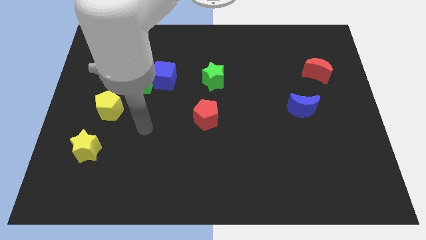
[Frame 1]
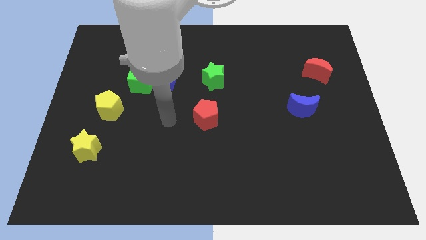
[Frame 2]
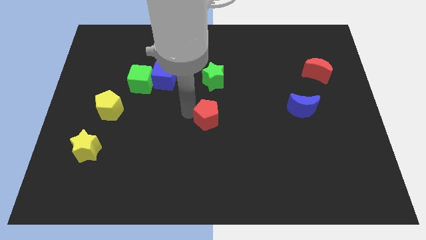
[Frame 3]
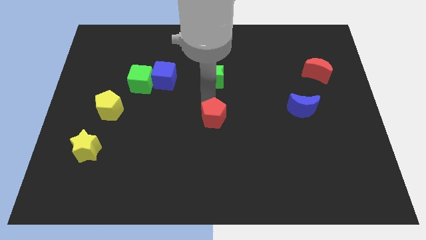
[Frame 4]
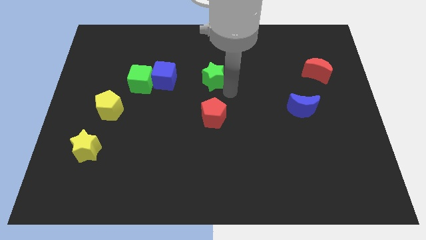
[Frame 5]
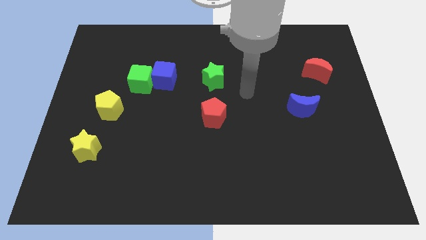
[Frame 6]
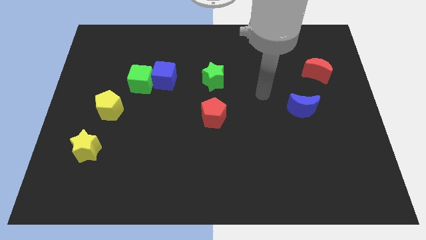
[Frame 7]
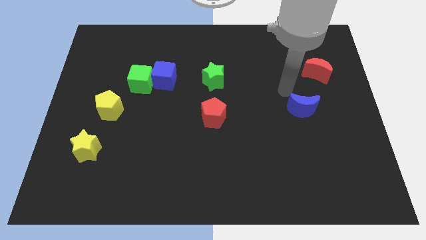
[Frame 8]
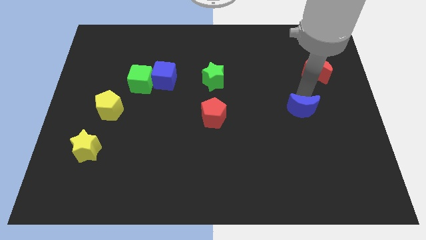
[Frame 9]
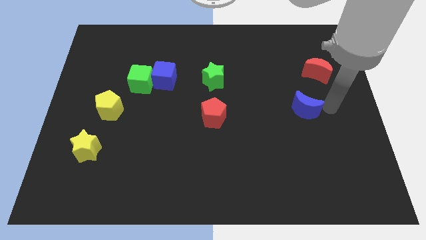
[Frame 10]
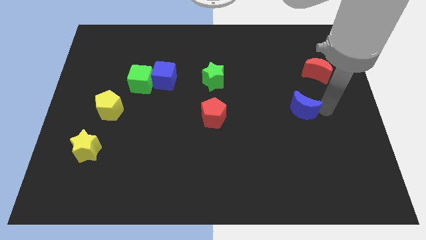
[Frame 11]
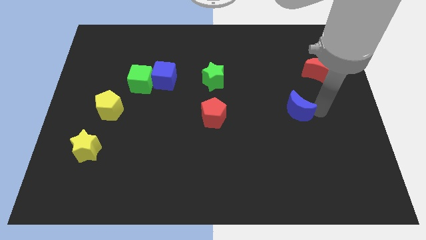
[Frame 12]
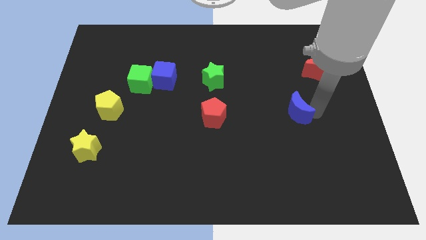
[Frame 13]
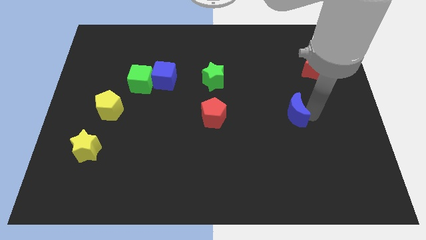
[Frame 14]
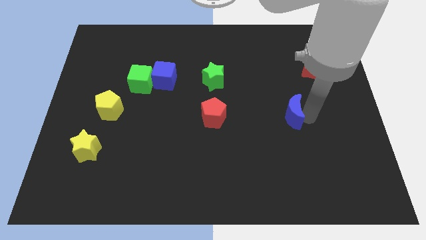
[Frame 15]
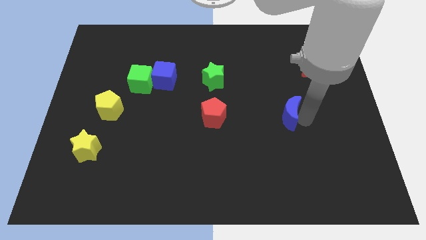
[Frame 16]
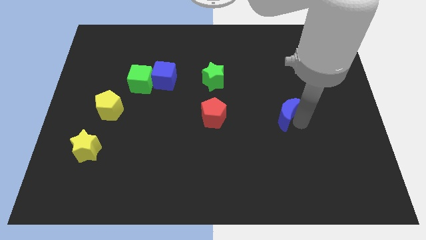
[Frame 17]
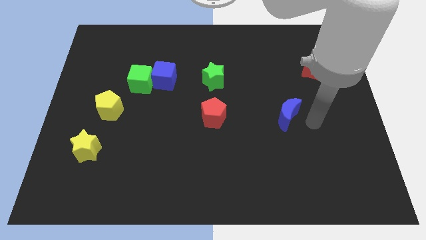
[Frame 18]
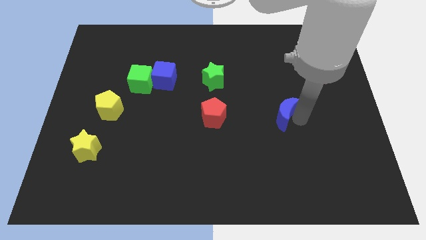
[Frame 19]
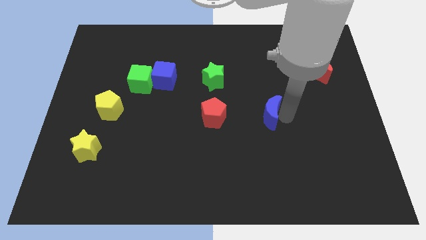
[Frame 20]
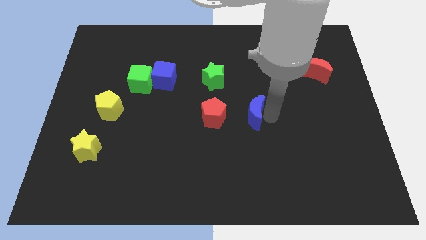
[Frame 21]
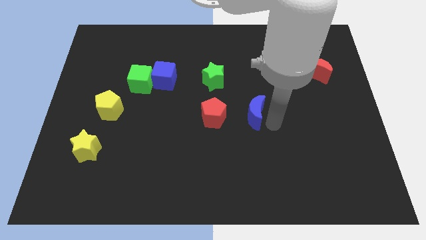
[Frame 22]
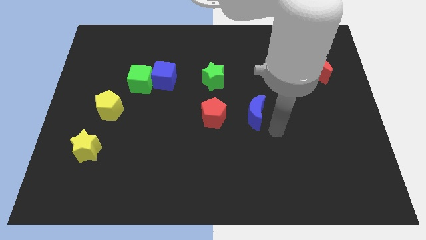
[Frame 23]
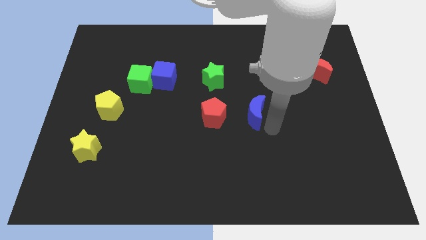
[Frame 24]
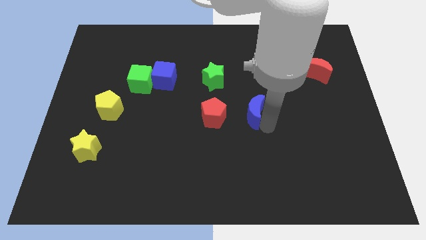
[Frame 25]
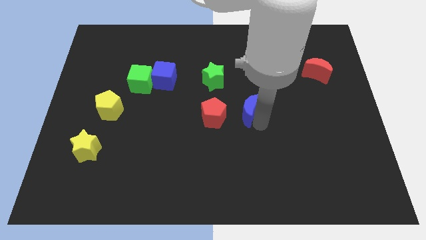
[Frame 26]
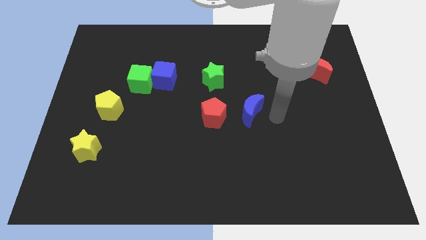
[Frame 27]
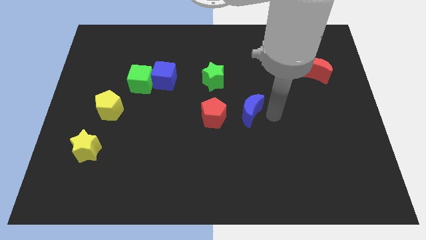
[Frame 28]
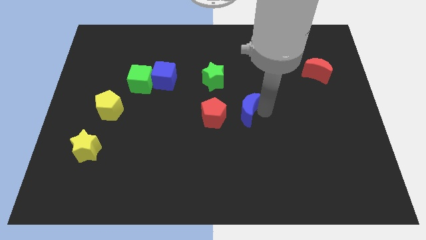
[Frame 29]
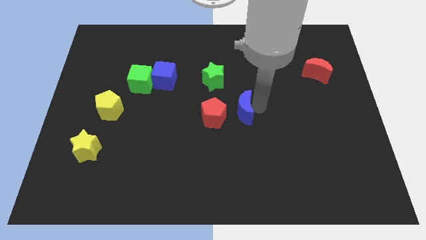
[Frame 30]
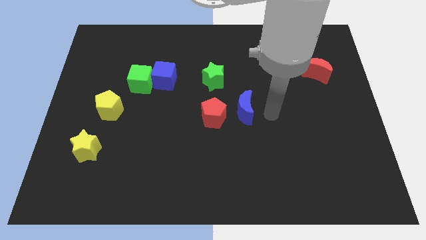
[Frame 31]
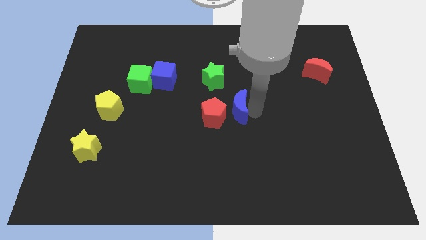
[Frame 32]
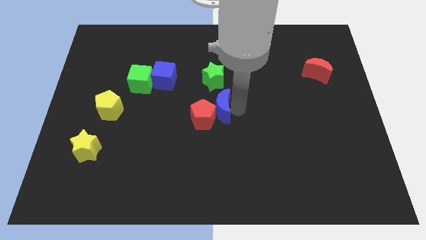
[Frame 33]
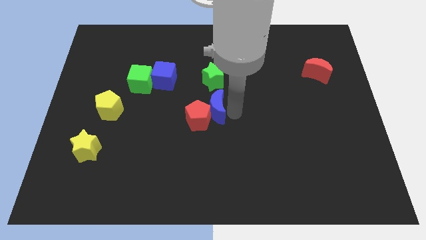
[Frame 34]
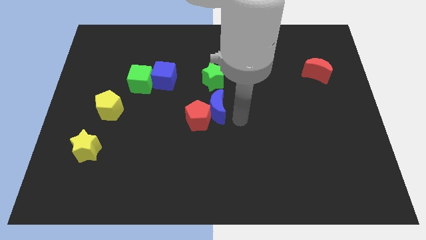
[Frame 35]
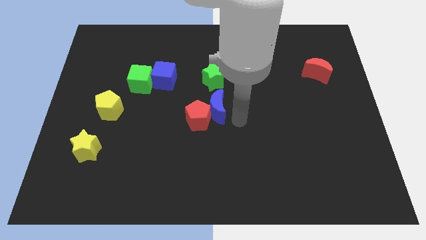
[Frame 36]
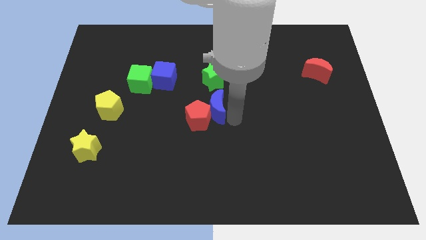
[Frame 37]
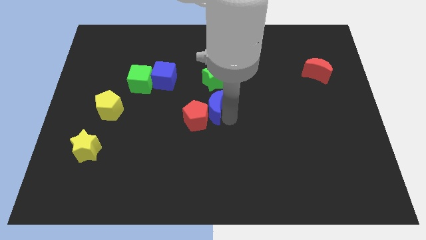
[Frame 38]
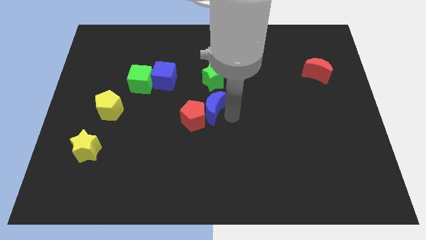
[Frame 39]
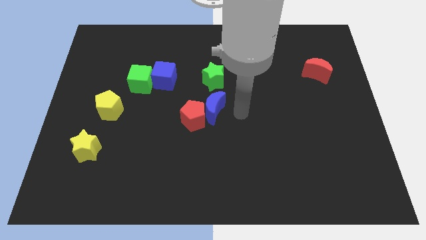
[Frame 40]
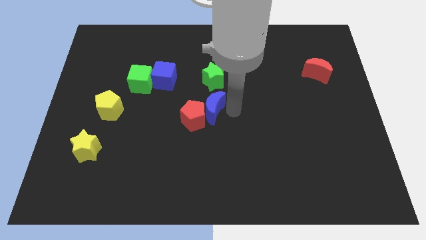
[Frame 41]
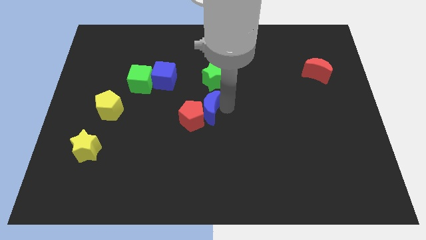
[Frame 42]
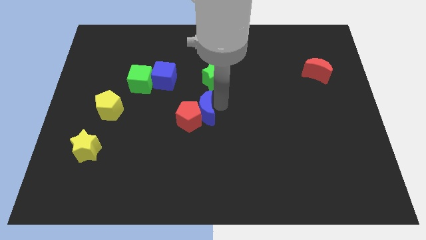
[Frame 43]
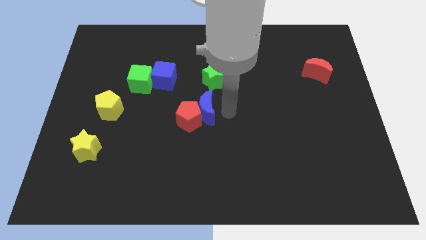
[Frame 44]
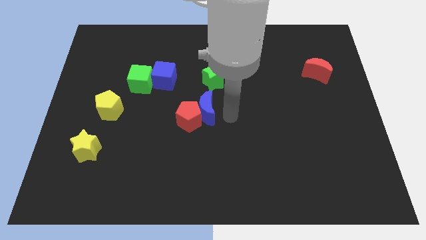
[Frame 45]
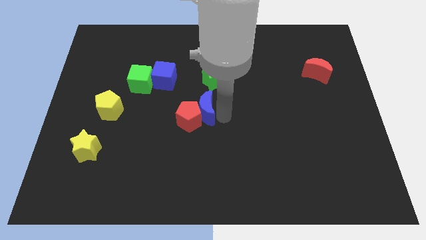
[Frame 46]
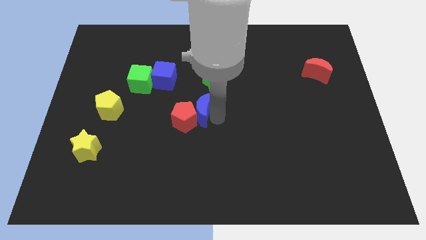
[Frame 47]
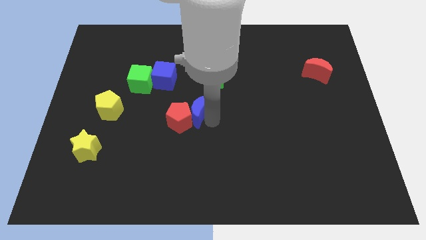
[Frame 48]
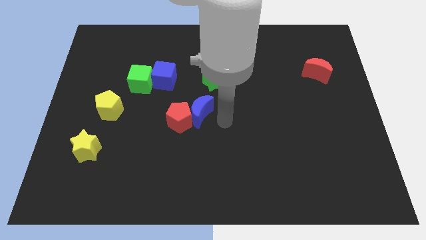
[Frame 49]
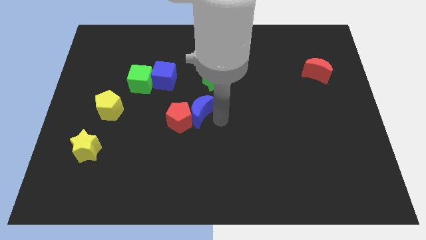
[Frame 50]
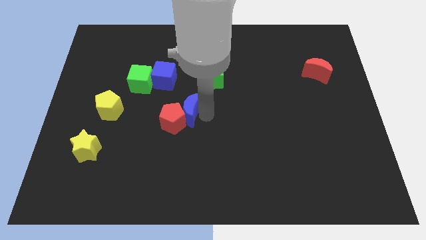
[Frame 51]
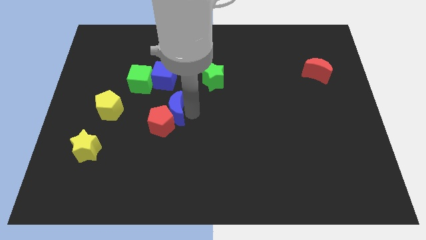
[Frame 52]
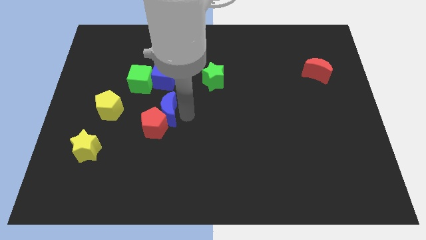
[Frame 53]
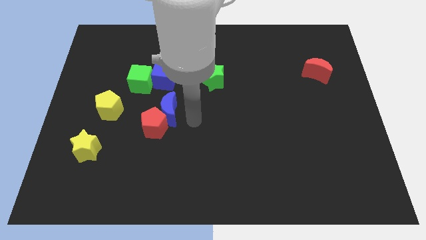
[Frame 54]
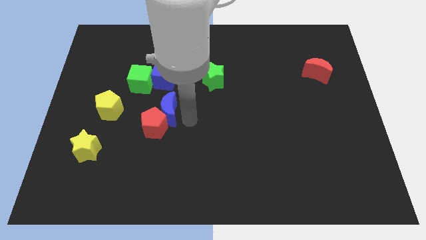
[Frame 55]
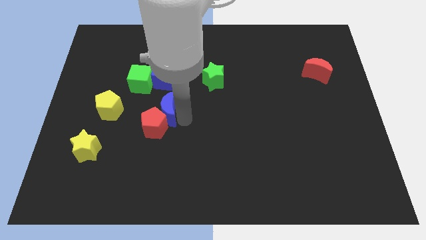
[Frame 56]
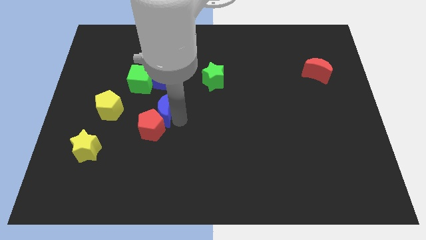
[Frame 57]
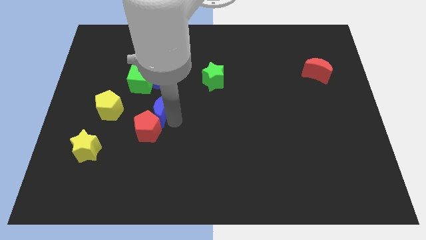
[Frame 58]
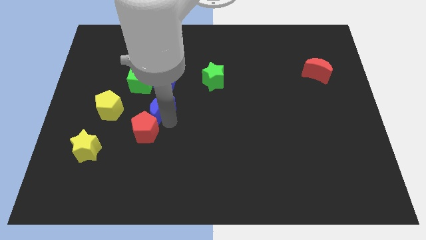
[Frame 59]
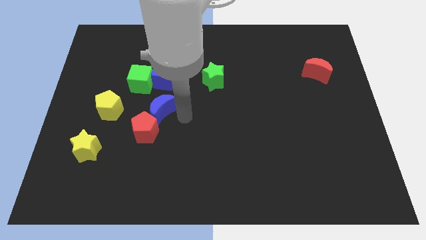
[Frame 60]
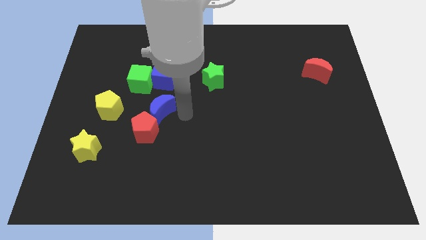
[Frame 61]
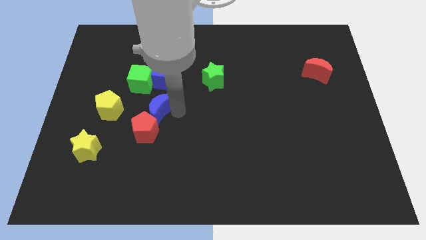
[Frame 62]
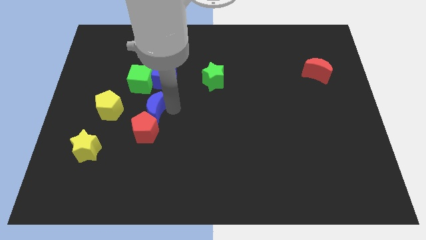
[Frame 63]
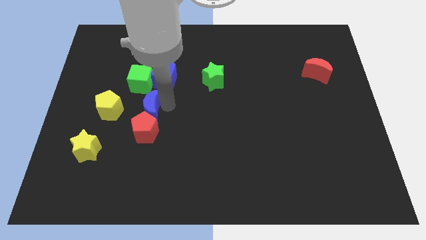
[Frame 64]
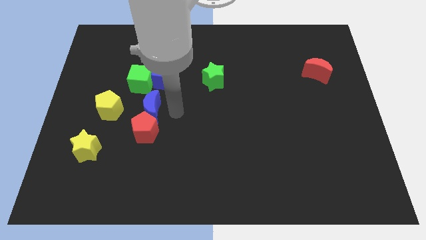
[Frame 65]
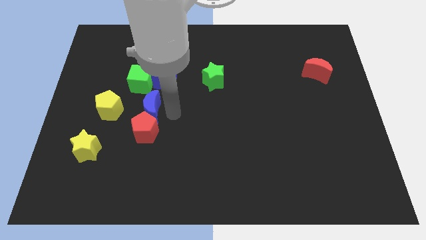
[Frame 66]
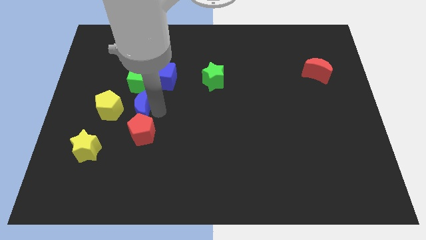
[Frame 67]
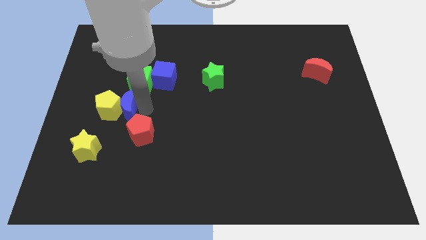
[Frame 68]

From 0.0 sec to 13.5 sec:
put the blue moon to the yellow pentagon
